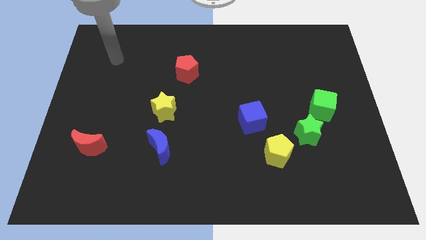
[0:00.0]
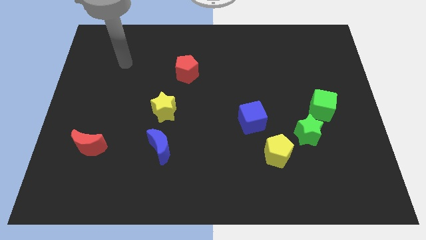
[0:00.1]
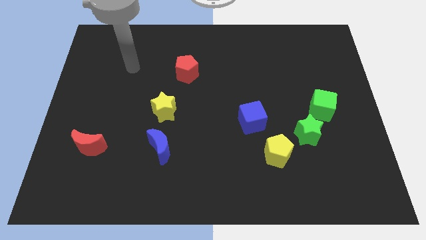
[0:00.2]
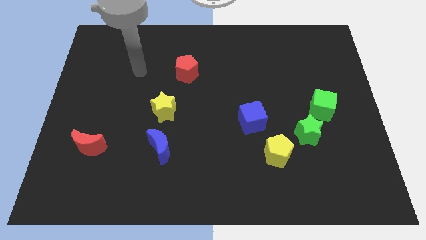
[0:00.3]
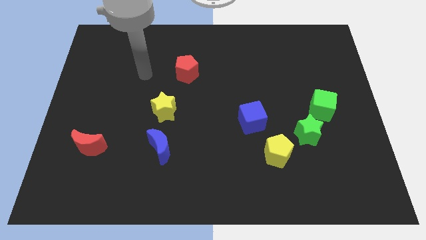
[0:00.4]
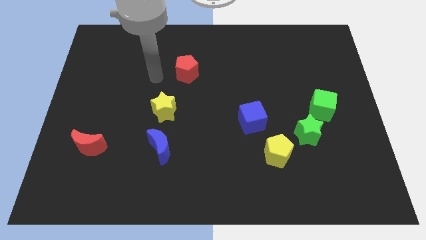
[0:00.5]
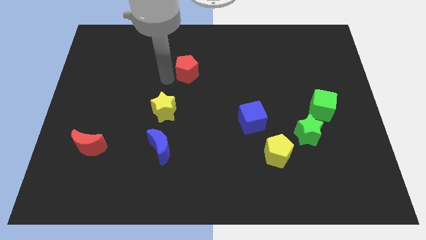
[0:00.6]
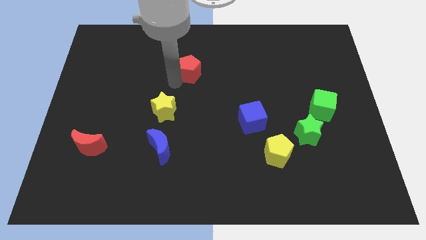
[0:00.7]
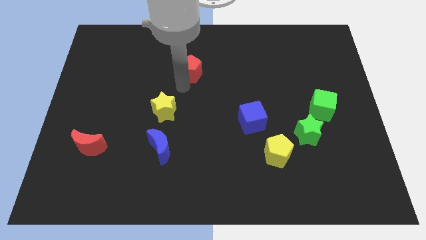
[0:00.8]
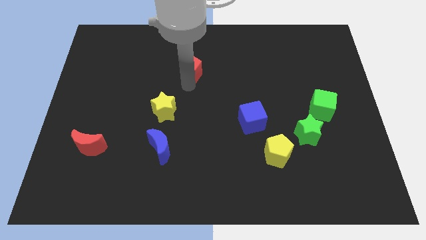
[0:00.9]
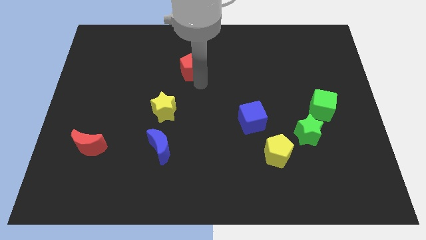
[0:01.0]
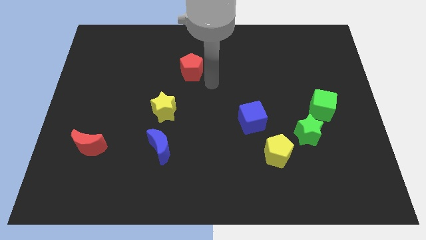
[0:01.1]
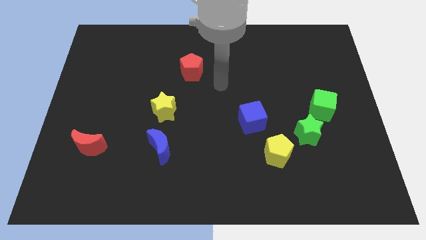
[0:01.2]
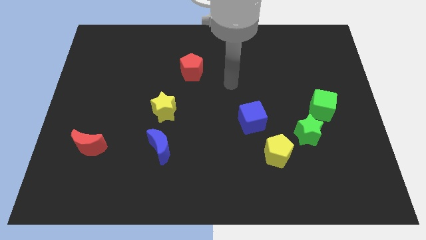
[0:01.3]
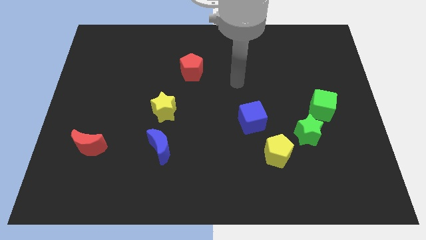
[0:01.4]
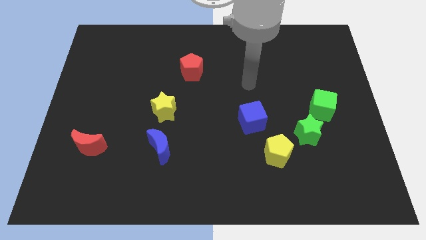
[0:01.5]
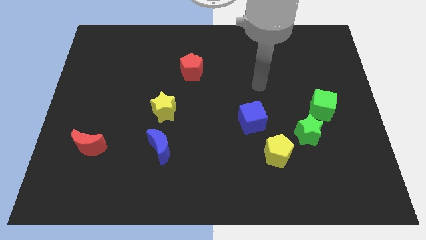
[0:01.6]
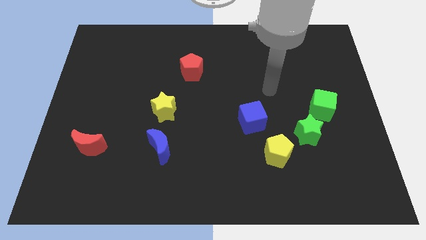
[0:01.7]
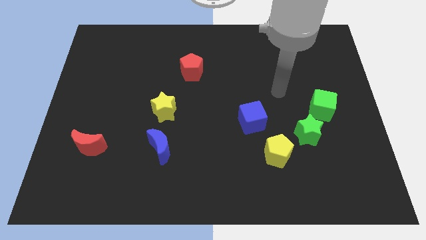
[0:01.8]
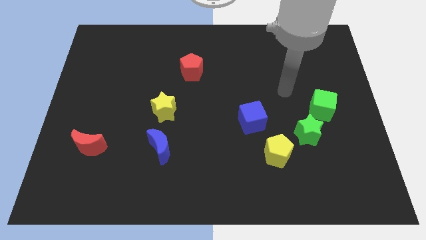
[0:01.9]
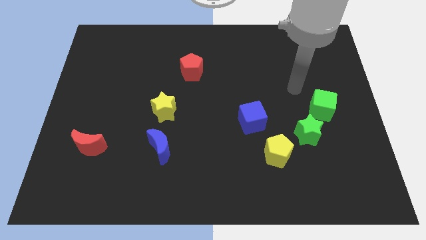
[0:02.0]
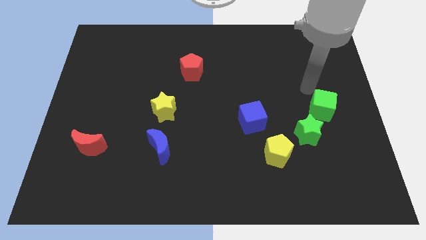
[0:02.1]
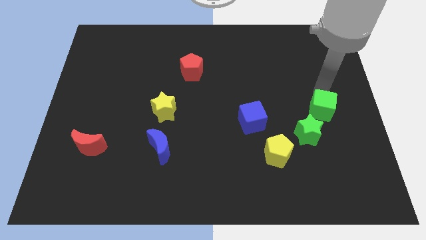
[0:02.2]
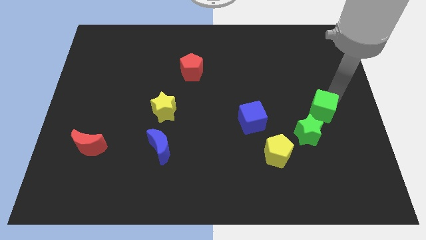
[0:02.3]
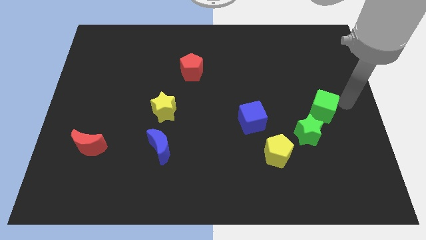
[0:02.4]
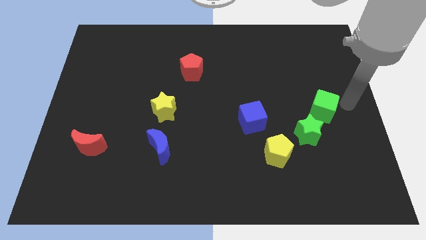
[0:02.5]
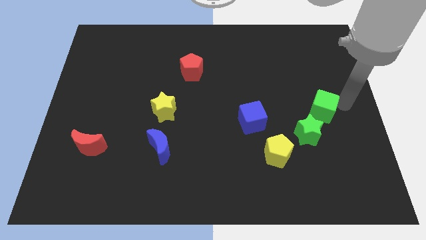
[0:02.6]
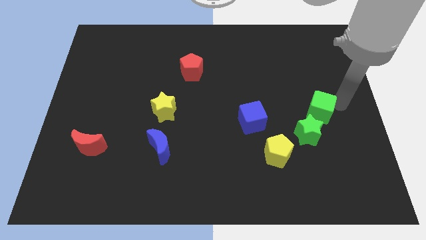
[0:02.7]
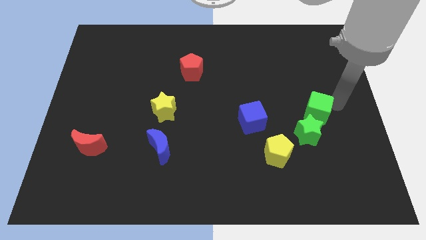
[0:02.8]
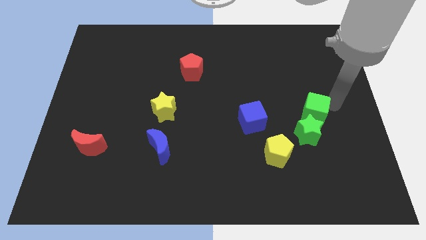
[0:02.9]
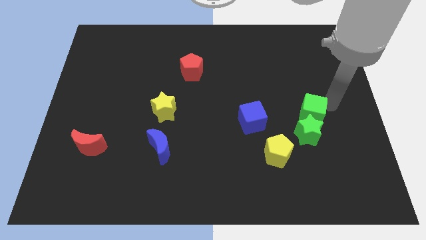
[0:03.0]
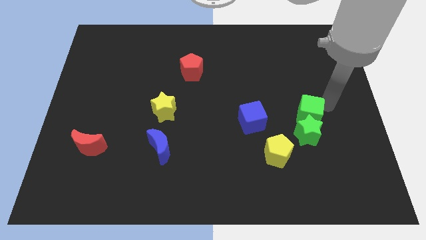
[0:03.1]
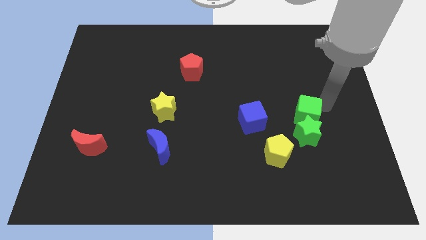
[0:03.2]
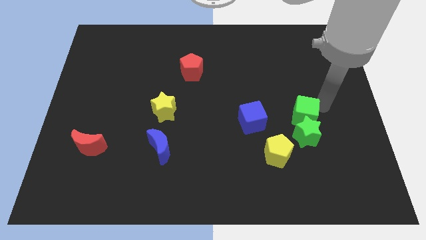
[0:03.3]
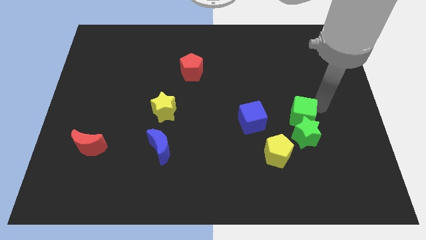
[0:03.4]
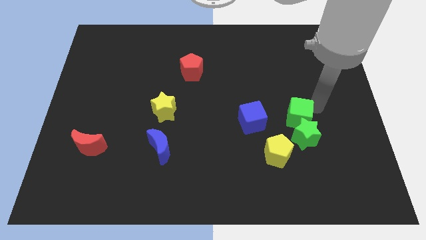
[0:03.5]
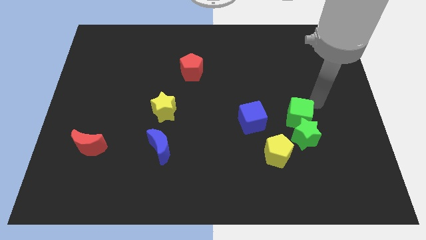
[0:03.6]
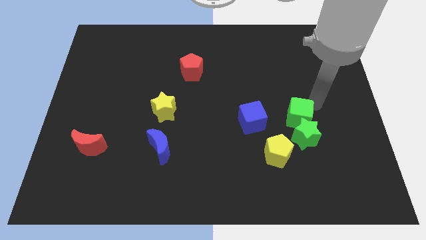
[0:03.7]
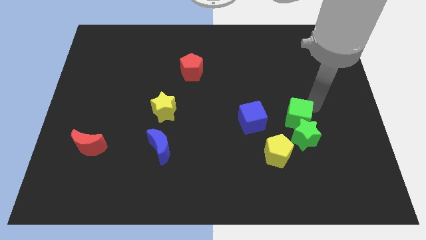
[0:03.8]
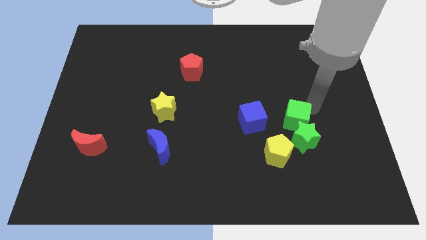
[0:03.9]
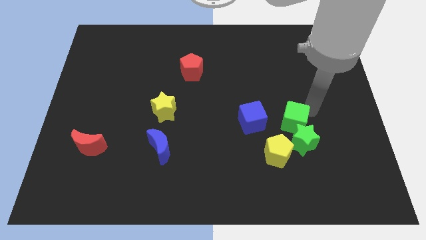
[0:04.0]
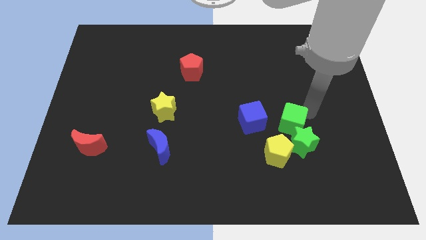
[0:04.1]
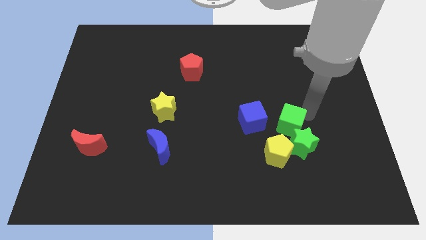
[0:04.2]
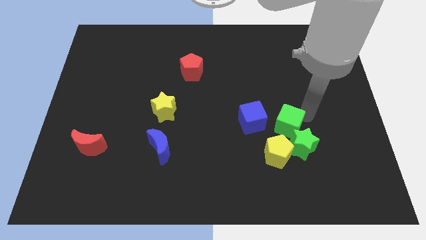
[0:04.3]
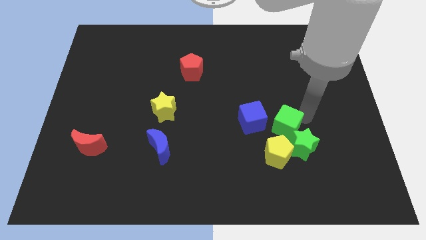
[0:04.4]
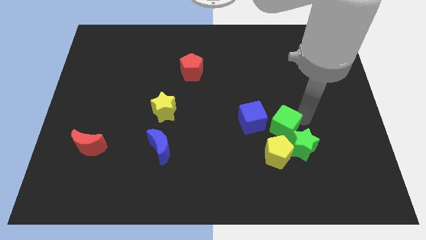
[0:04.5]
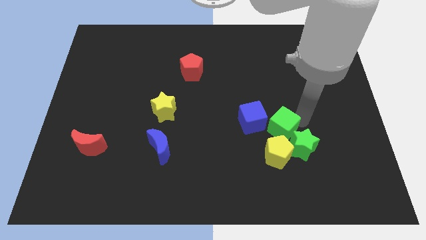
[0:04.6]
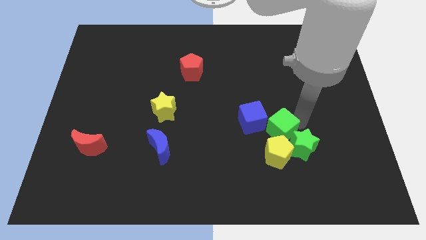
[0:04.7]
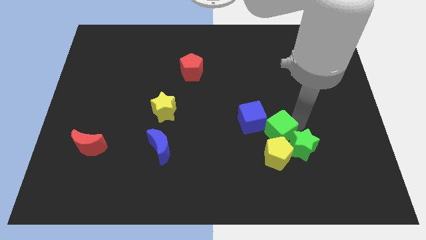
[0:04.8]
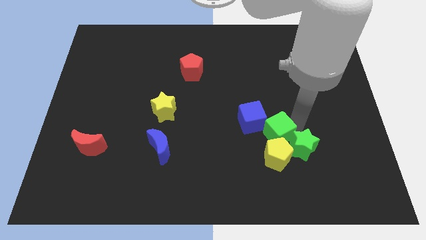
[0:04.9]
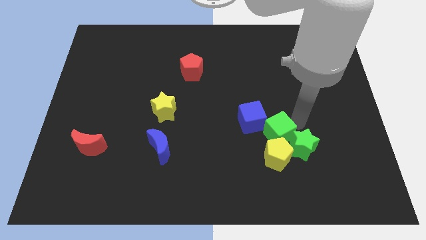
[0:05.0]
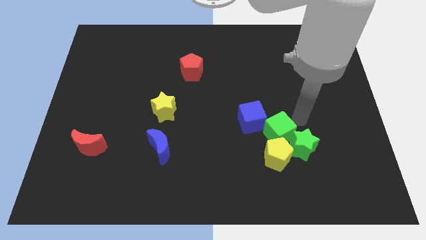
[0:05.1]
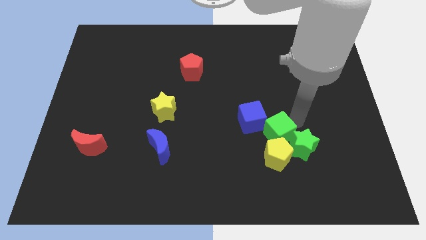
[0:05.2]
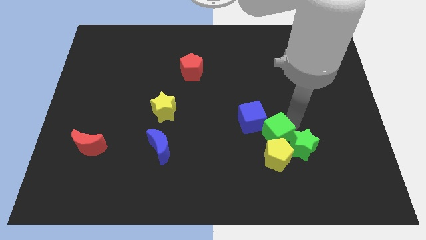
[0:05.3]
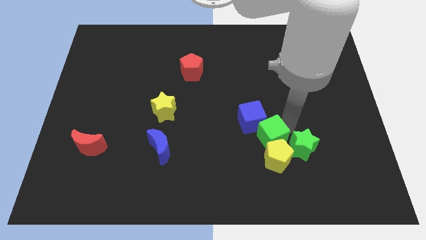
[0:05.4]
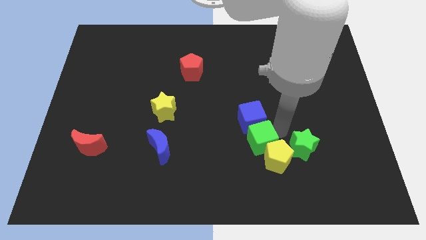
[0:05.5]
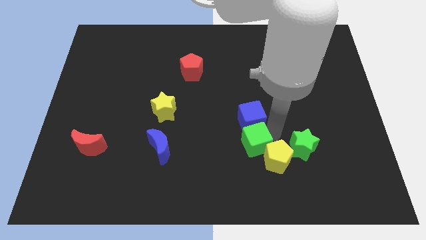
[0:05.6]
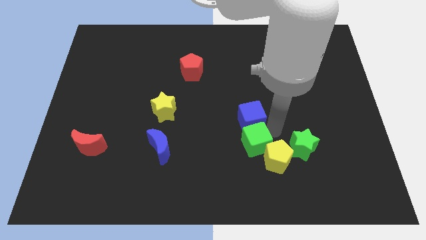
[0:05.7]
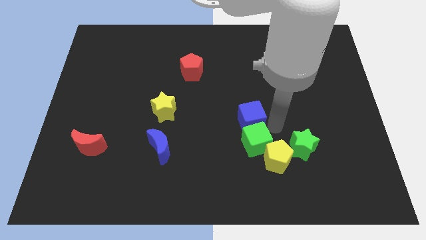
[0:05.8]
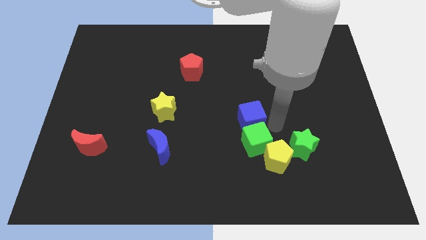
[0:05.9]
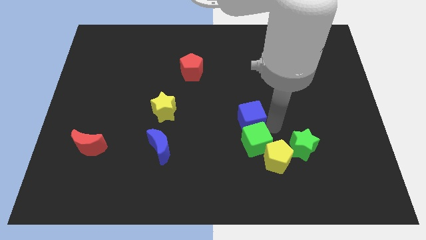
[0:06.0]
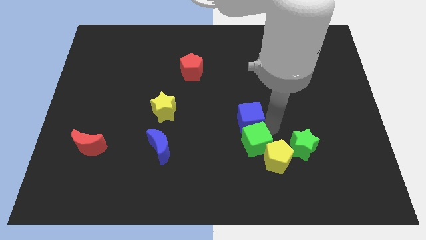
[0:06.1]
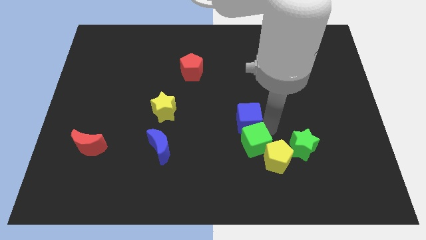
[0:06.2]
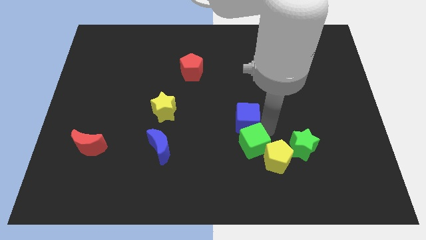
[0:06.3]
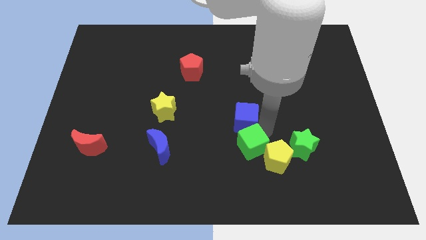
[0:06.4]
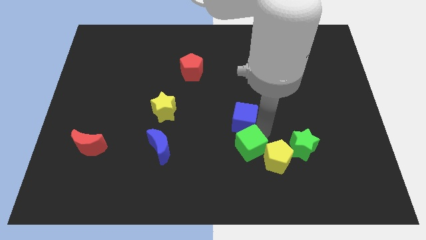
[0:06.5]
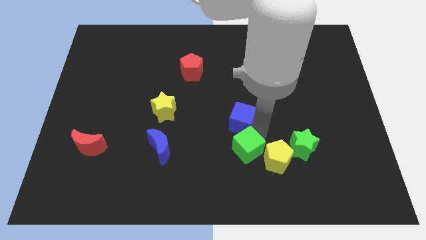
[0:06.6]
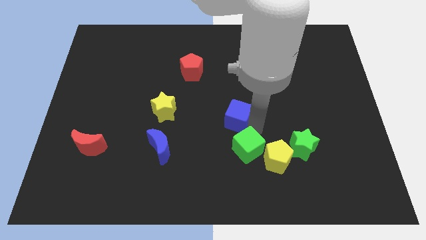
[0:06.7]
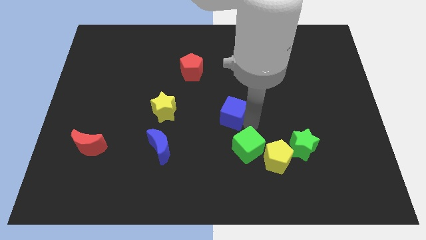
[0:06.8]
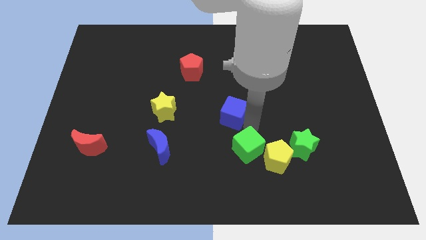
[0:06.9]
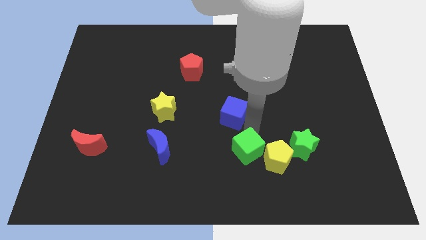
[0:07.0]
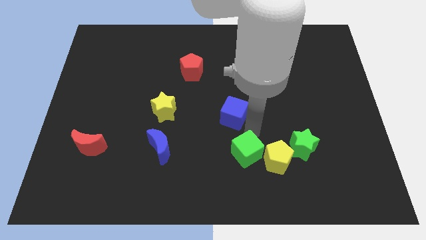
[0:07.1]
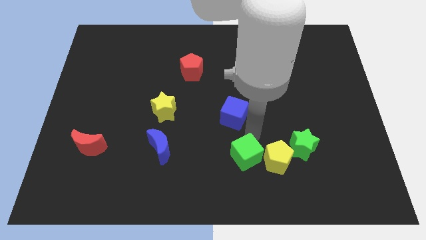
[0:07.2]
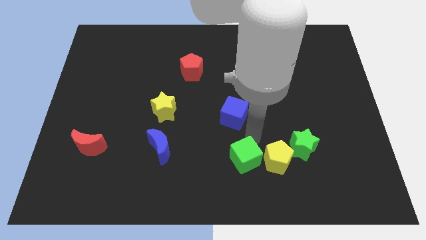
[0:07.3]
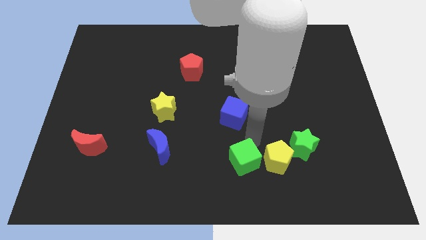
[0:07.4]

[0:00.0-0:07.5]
put the green cube to the bottom side
